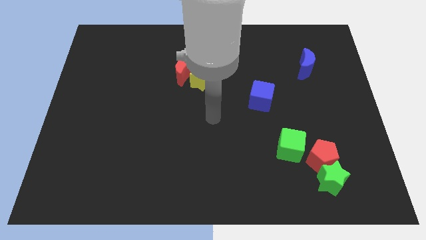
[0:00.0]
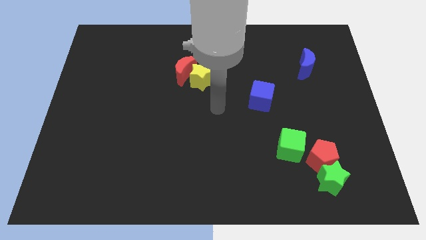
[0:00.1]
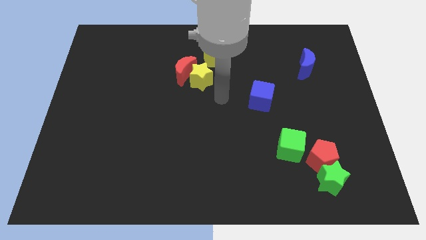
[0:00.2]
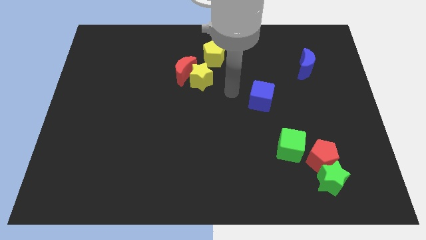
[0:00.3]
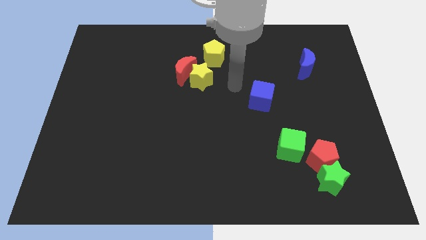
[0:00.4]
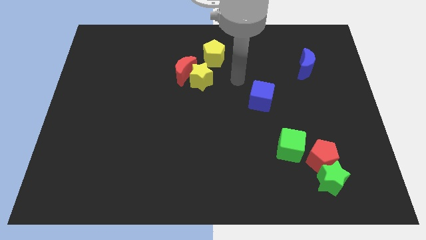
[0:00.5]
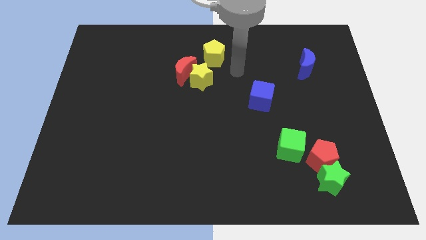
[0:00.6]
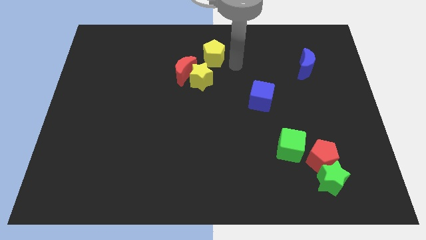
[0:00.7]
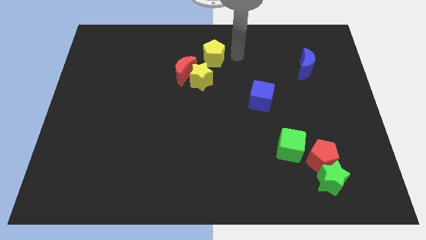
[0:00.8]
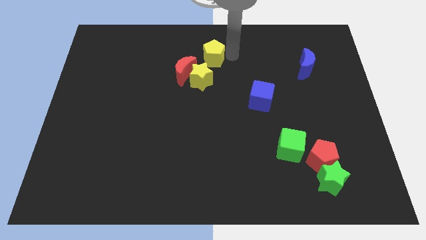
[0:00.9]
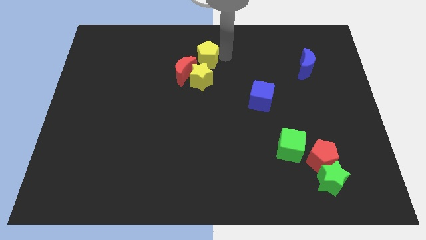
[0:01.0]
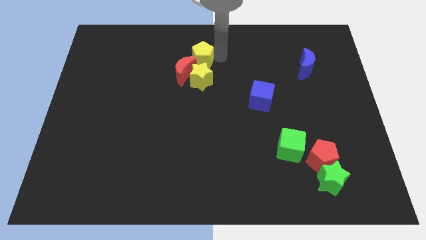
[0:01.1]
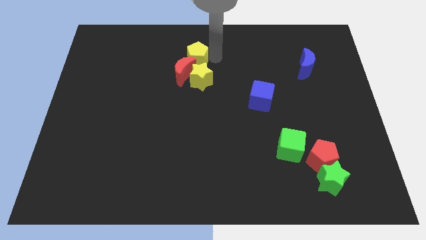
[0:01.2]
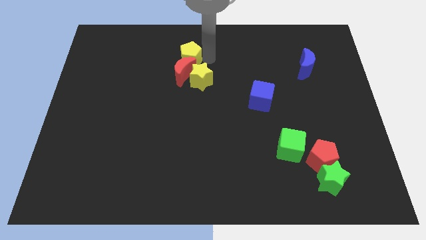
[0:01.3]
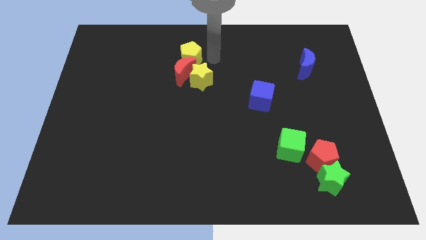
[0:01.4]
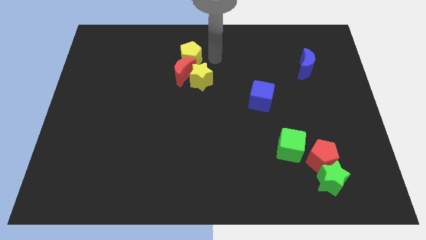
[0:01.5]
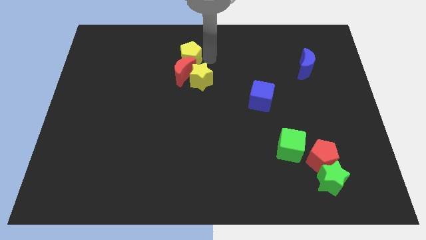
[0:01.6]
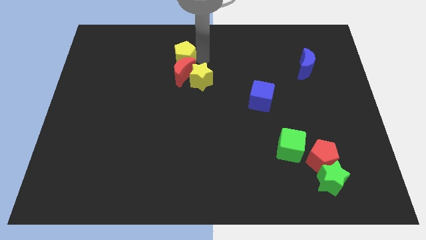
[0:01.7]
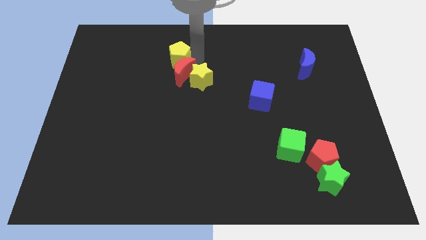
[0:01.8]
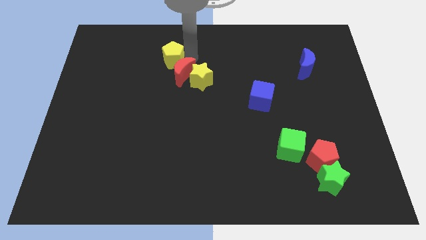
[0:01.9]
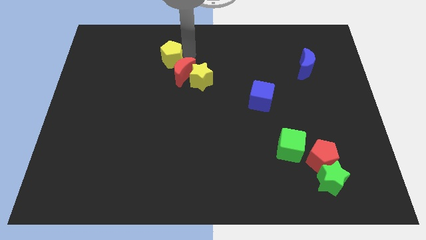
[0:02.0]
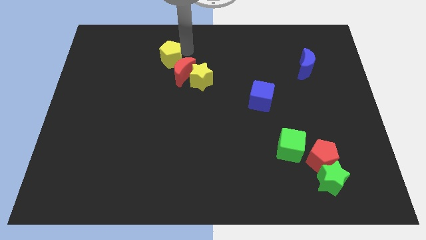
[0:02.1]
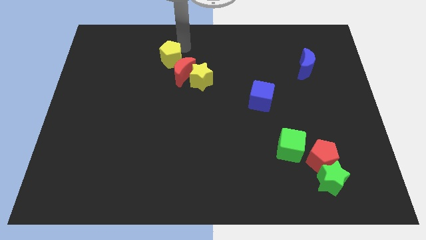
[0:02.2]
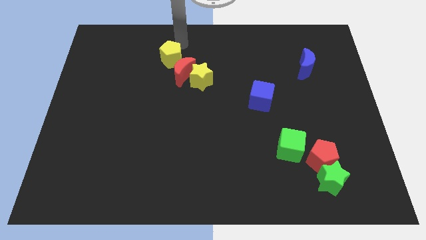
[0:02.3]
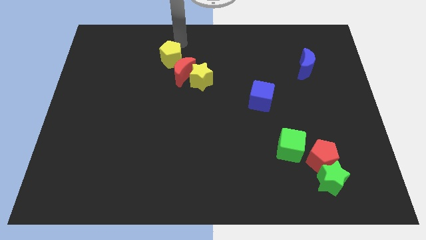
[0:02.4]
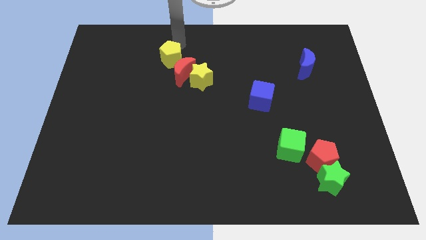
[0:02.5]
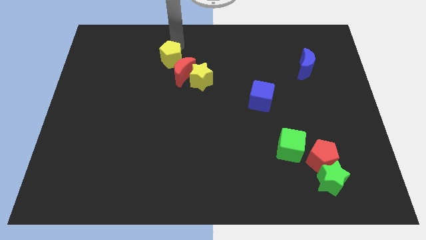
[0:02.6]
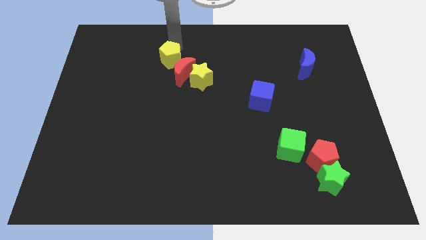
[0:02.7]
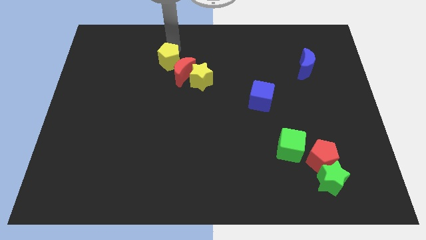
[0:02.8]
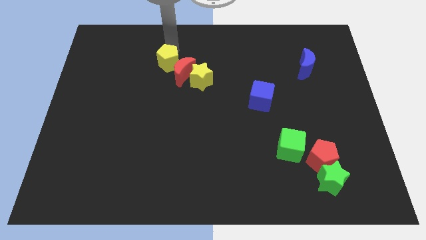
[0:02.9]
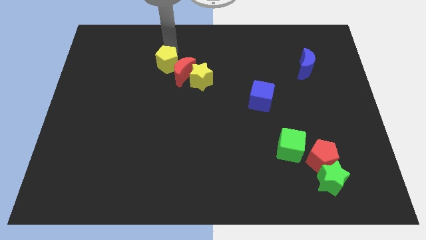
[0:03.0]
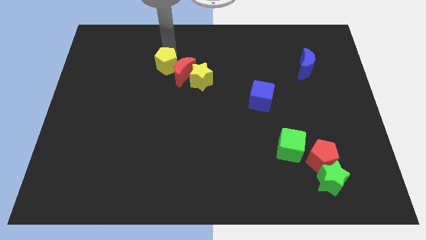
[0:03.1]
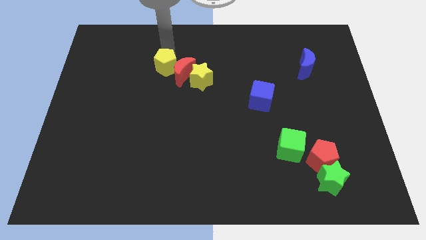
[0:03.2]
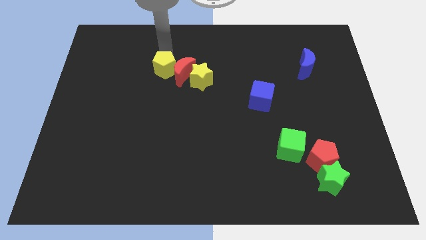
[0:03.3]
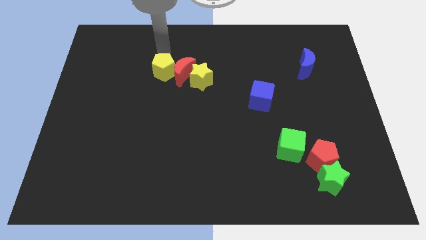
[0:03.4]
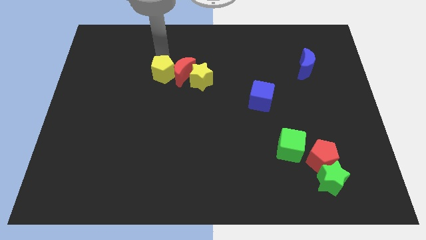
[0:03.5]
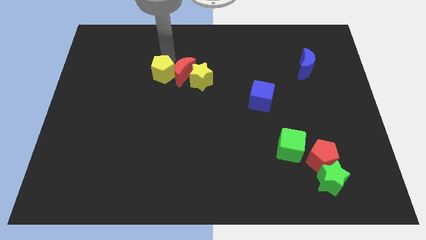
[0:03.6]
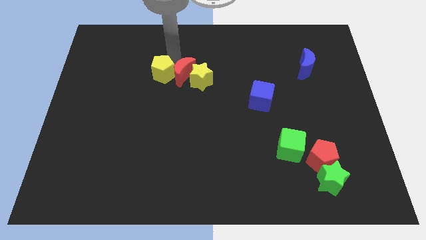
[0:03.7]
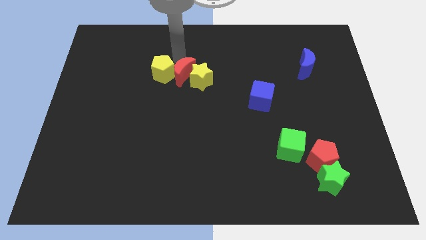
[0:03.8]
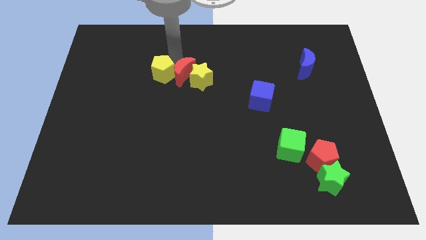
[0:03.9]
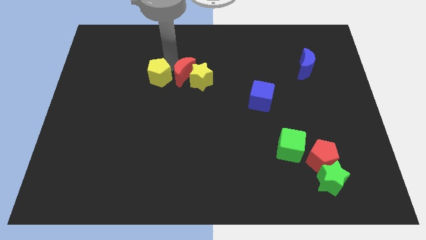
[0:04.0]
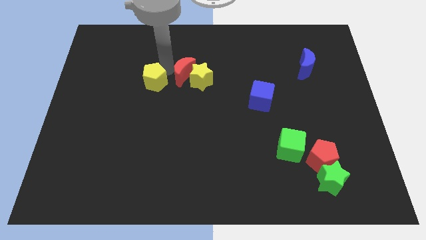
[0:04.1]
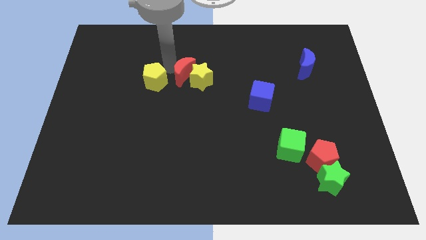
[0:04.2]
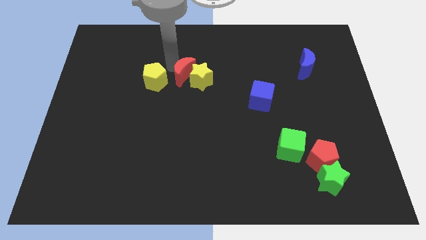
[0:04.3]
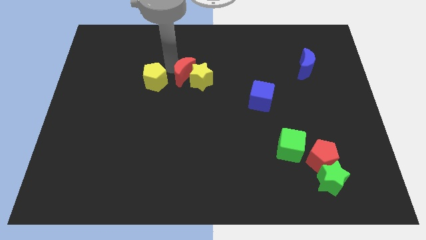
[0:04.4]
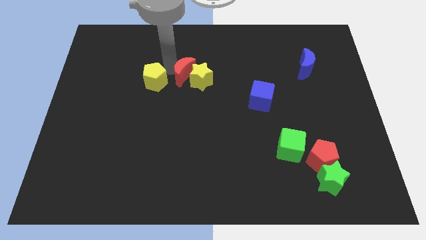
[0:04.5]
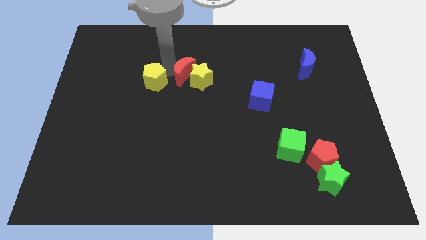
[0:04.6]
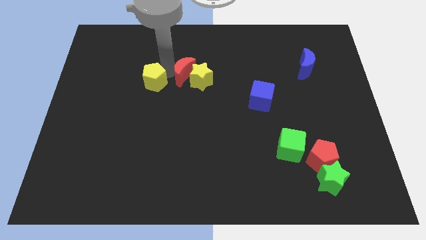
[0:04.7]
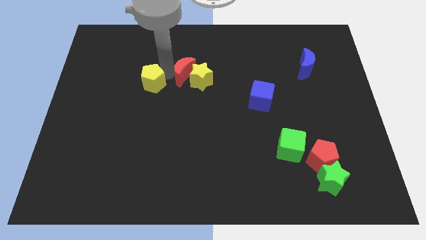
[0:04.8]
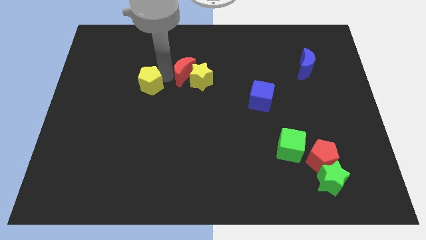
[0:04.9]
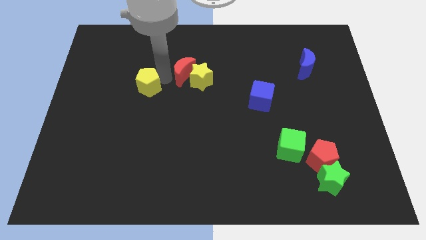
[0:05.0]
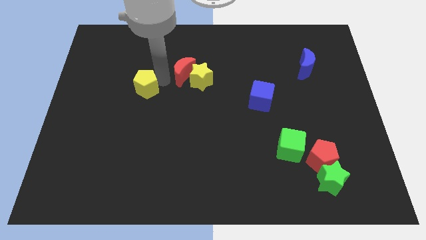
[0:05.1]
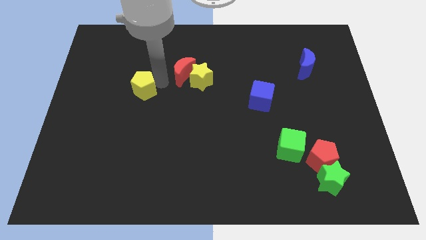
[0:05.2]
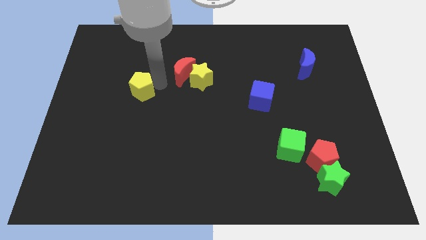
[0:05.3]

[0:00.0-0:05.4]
slide the yellow pentagon diagonally down and to the left

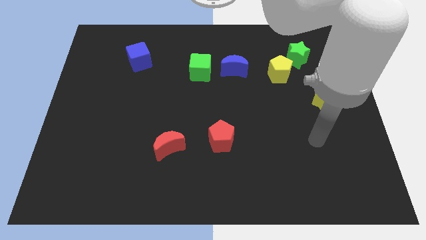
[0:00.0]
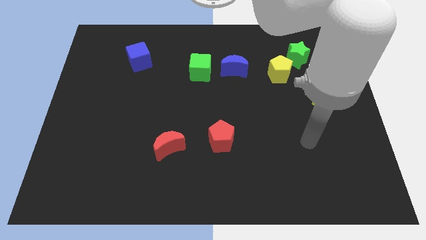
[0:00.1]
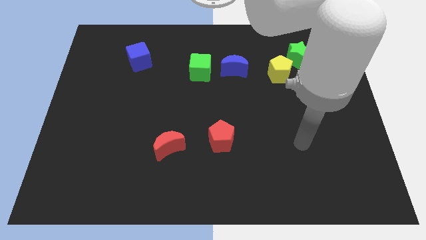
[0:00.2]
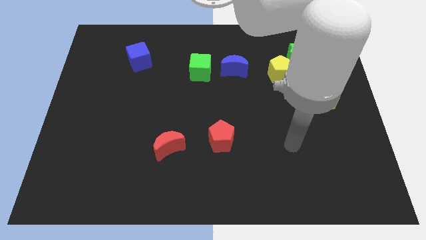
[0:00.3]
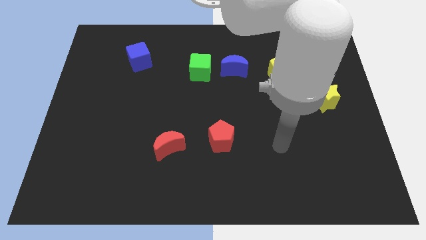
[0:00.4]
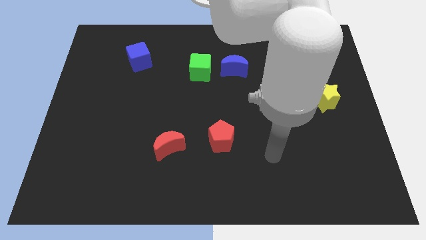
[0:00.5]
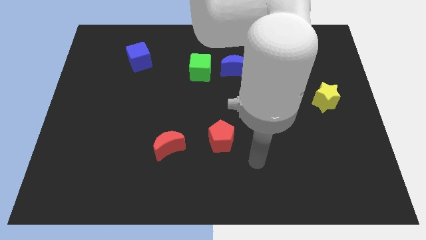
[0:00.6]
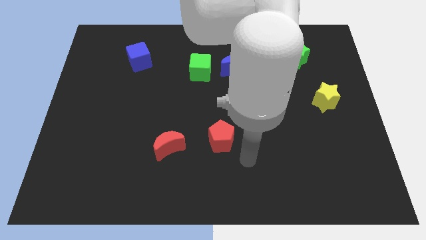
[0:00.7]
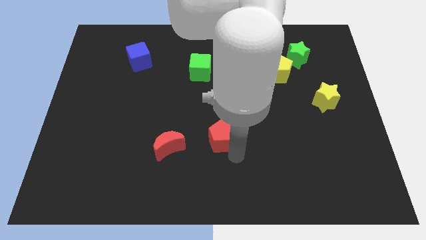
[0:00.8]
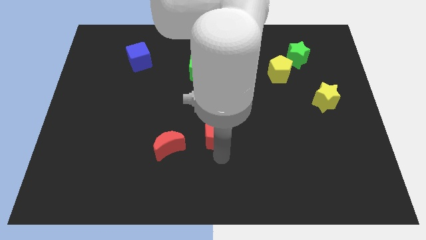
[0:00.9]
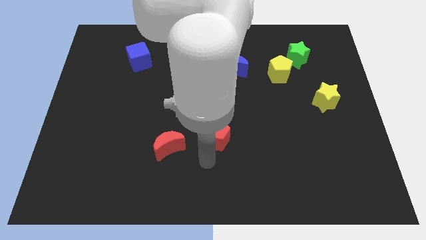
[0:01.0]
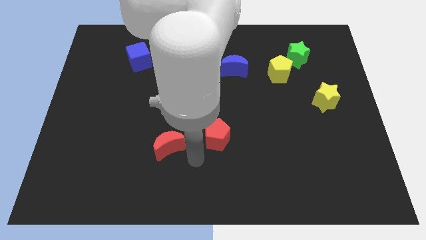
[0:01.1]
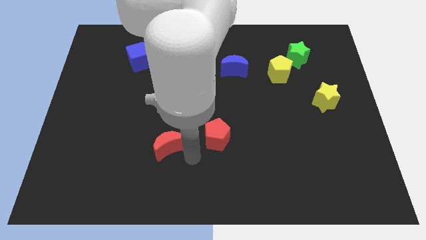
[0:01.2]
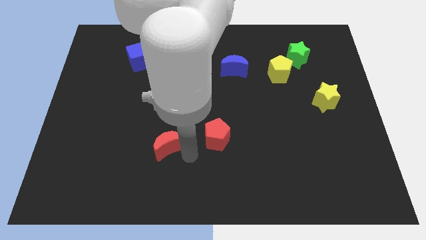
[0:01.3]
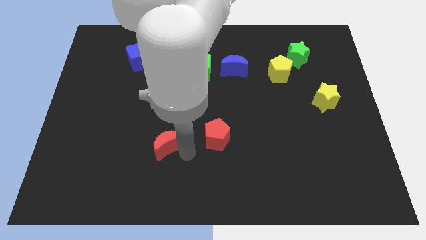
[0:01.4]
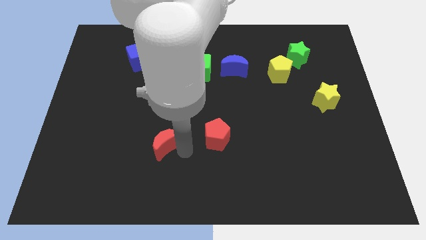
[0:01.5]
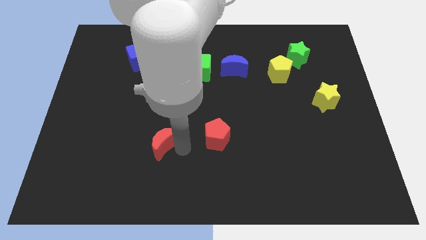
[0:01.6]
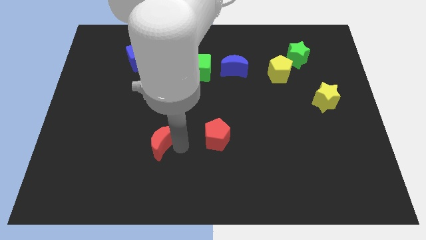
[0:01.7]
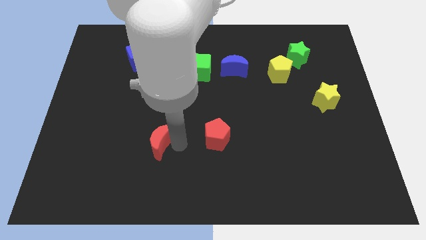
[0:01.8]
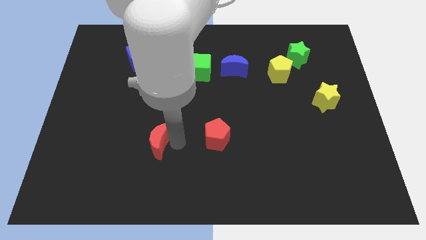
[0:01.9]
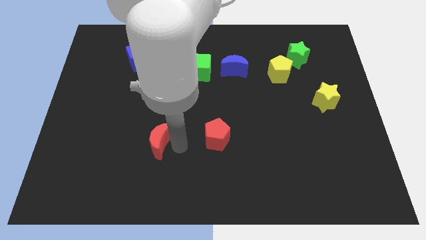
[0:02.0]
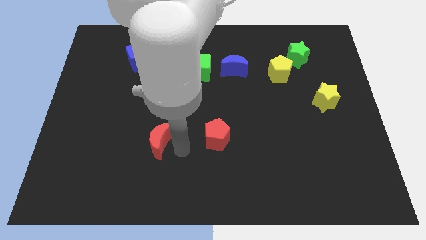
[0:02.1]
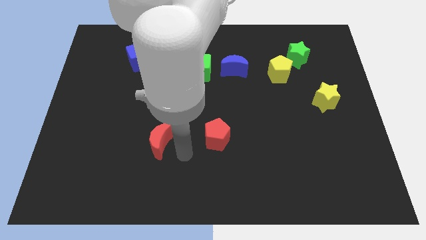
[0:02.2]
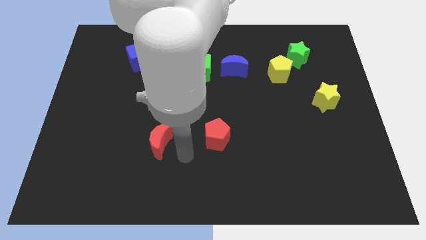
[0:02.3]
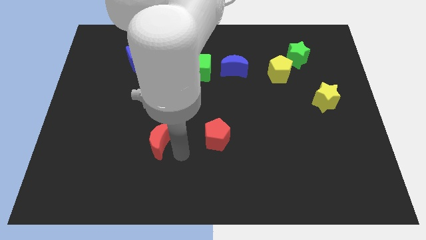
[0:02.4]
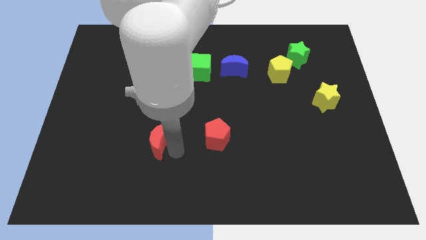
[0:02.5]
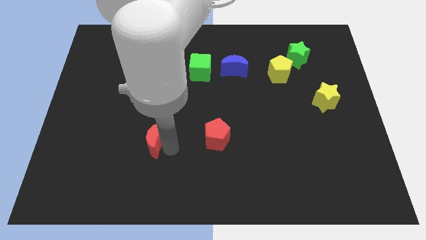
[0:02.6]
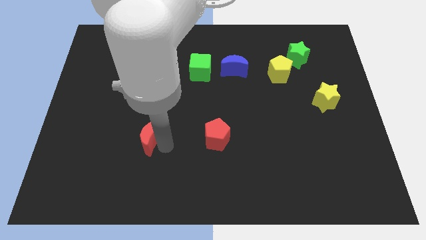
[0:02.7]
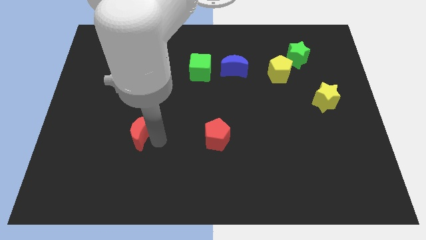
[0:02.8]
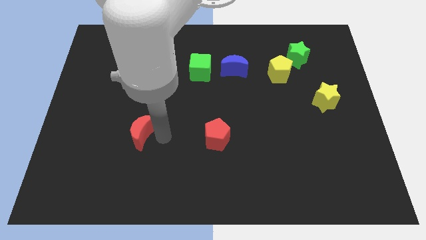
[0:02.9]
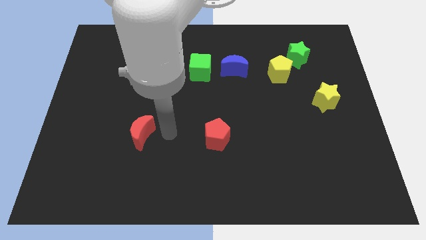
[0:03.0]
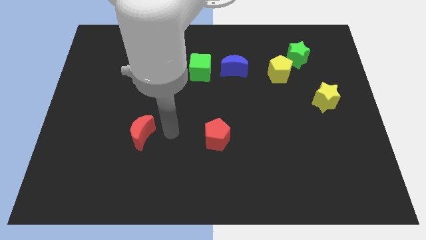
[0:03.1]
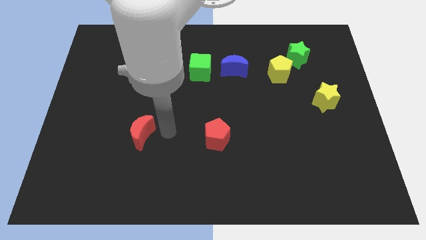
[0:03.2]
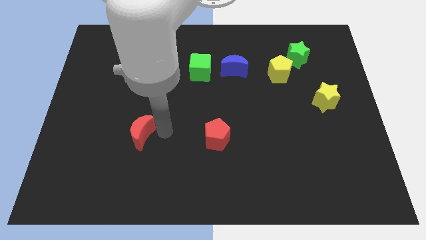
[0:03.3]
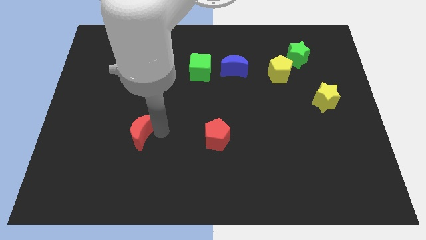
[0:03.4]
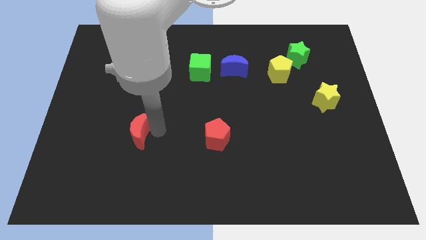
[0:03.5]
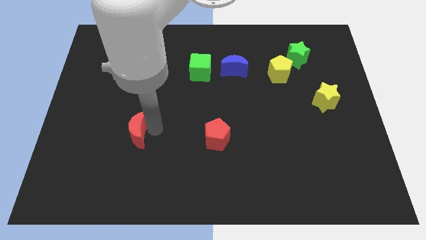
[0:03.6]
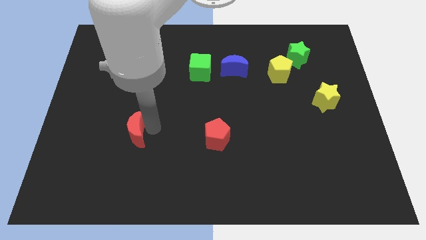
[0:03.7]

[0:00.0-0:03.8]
slightly move the red moon to the left
